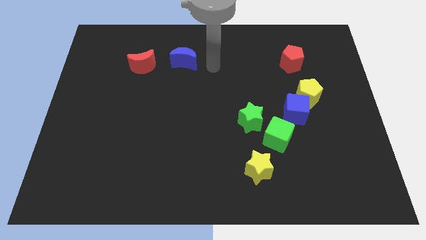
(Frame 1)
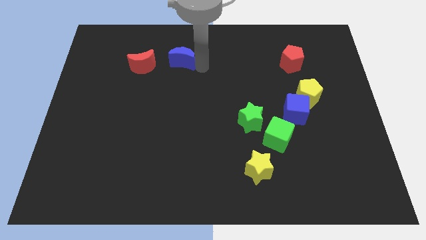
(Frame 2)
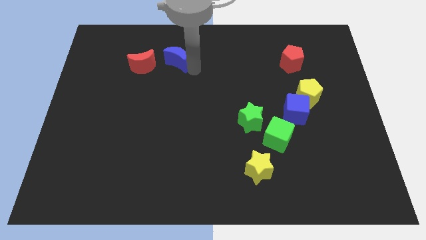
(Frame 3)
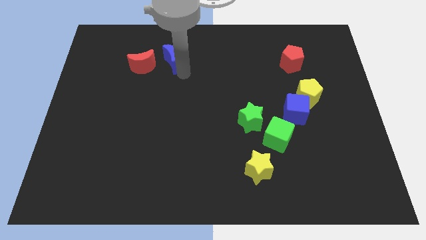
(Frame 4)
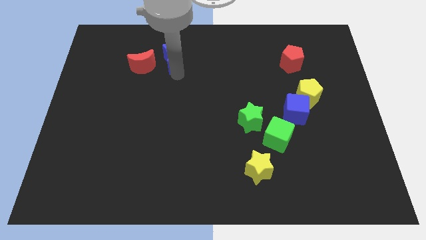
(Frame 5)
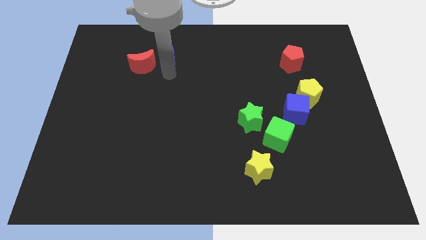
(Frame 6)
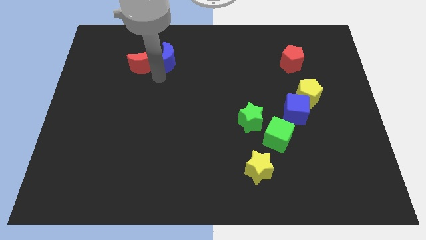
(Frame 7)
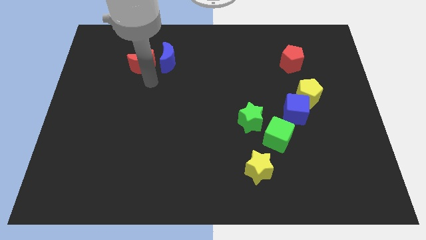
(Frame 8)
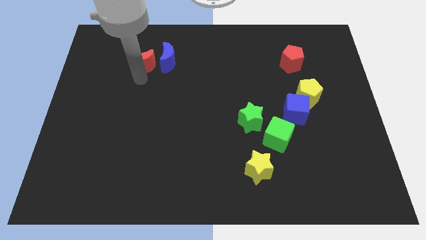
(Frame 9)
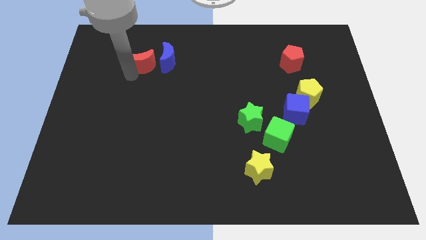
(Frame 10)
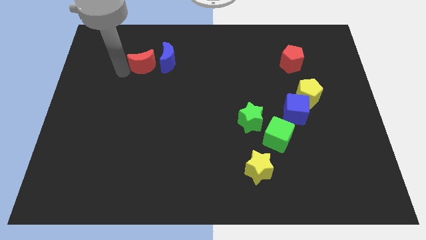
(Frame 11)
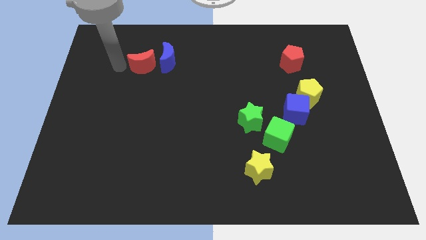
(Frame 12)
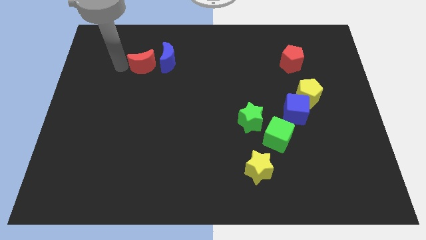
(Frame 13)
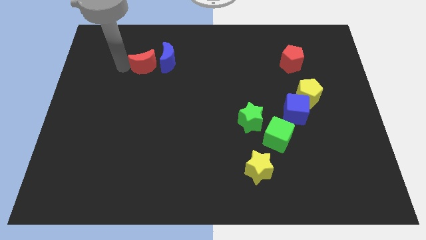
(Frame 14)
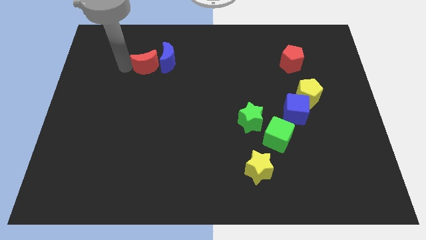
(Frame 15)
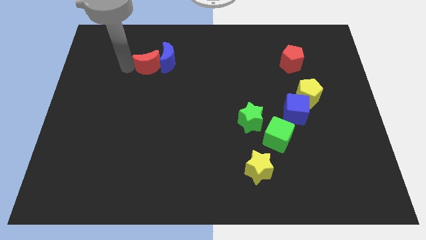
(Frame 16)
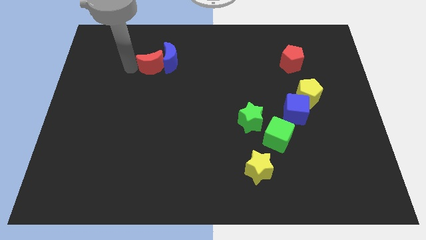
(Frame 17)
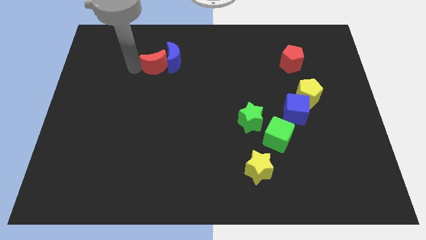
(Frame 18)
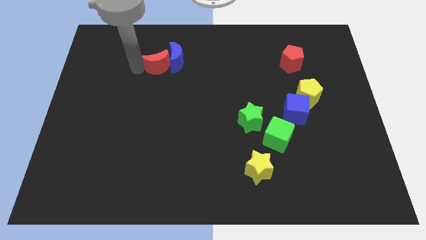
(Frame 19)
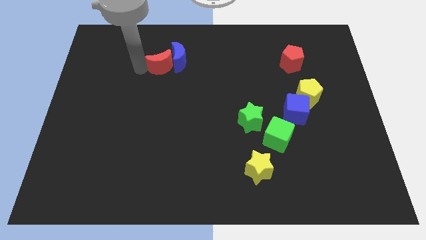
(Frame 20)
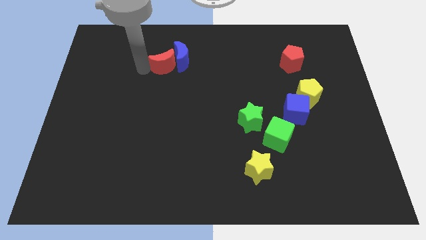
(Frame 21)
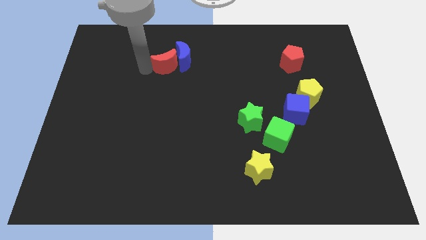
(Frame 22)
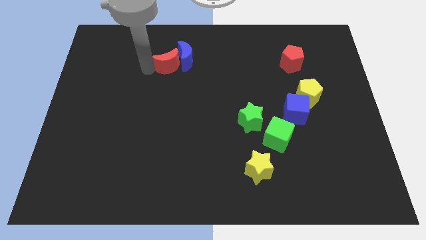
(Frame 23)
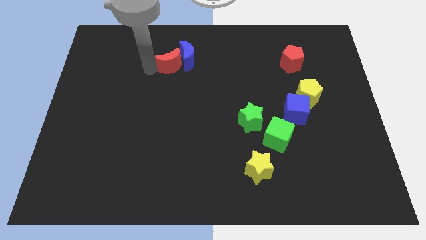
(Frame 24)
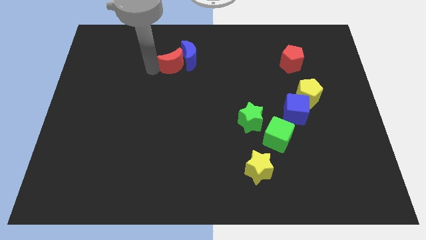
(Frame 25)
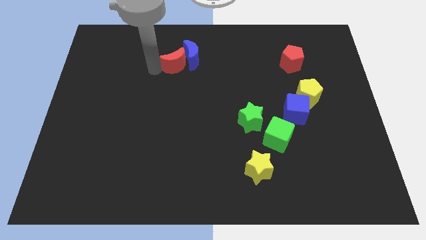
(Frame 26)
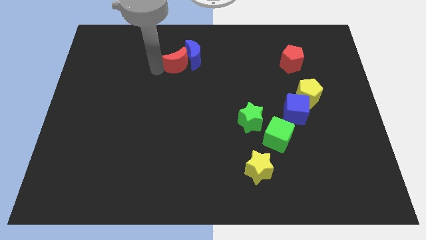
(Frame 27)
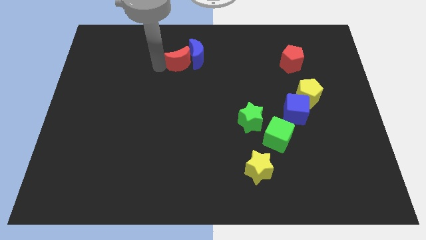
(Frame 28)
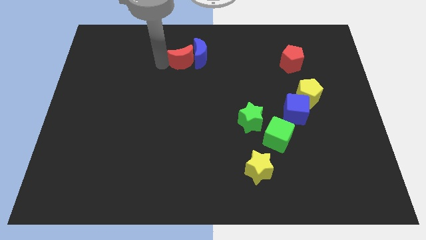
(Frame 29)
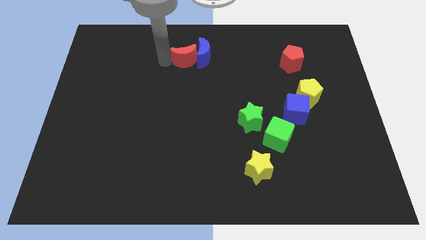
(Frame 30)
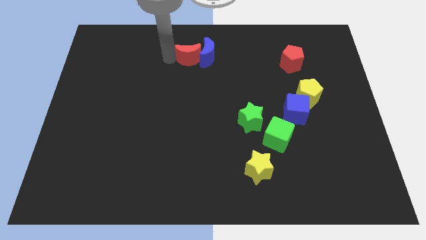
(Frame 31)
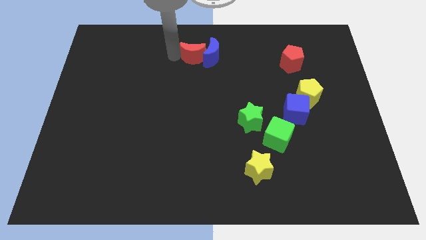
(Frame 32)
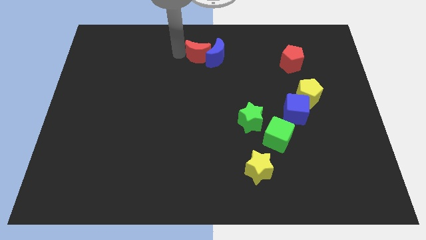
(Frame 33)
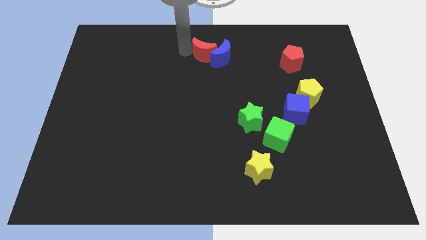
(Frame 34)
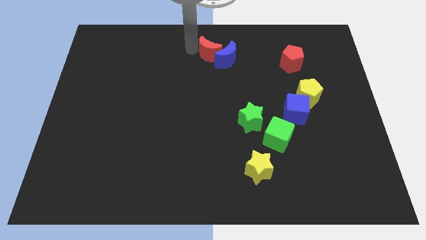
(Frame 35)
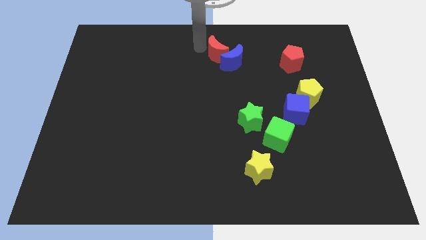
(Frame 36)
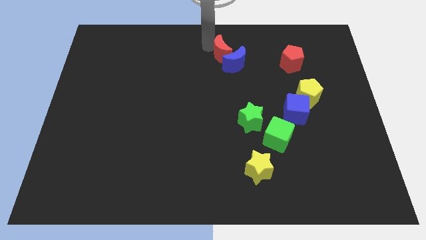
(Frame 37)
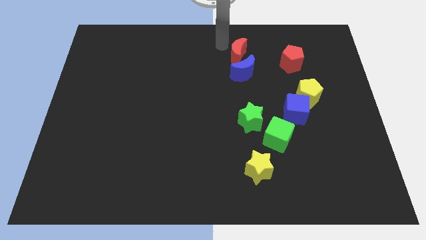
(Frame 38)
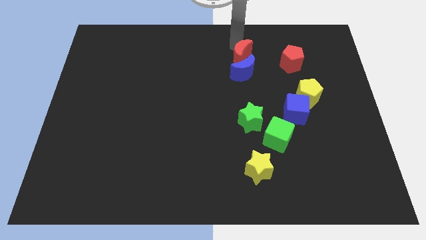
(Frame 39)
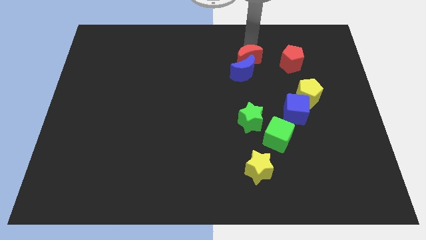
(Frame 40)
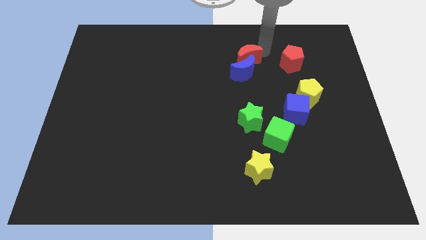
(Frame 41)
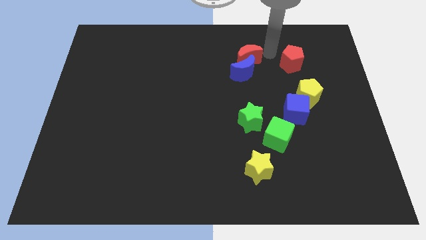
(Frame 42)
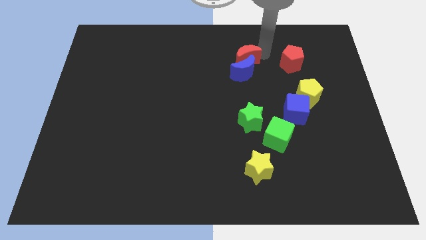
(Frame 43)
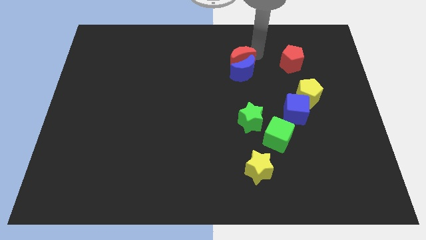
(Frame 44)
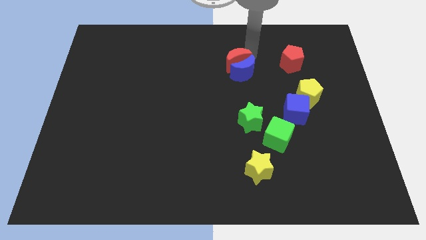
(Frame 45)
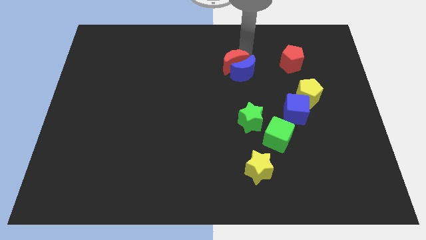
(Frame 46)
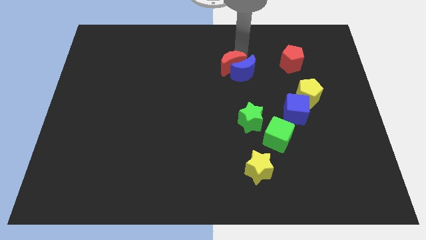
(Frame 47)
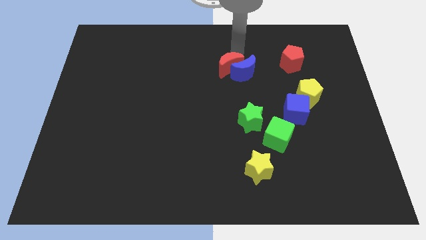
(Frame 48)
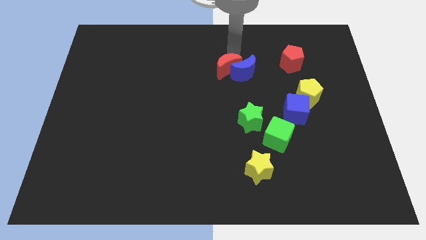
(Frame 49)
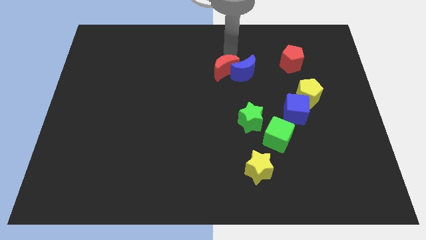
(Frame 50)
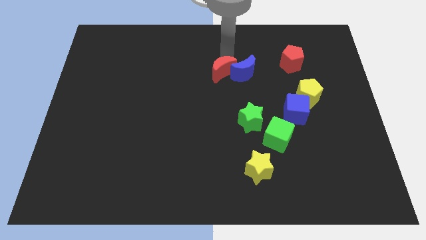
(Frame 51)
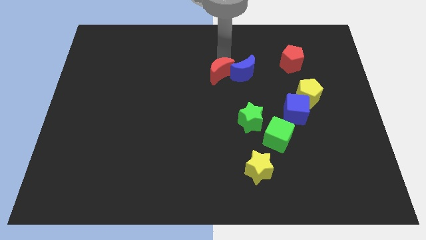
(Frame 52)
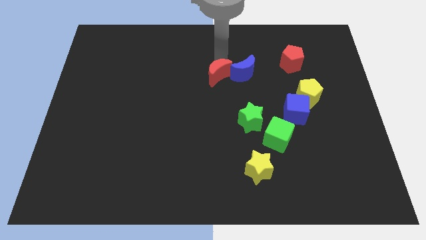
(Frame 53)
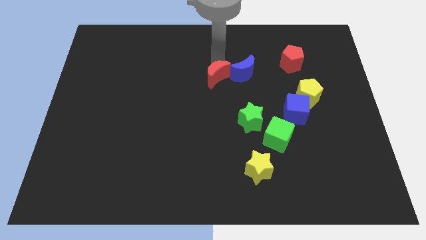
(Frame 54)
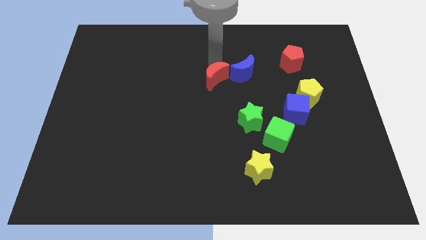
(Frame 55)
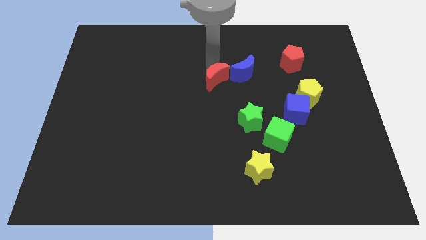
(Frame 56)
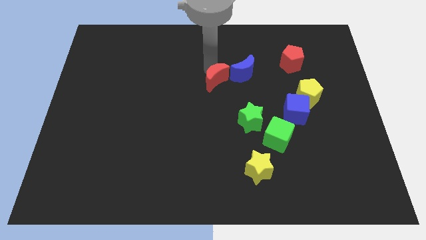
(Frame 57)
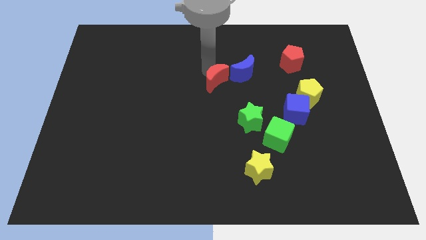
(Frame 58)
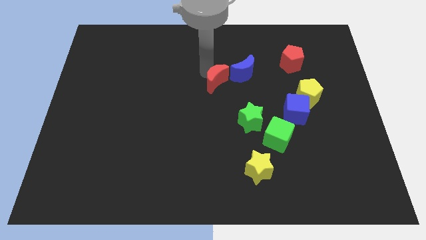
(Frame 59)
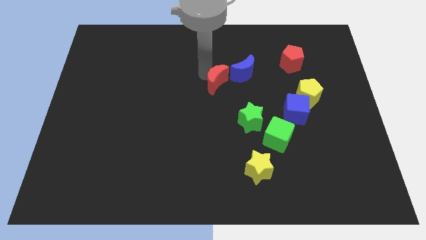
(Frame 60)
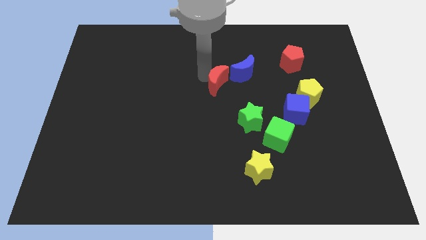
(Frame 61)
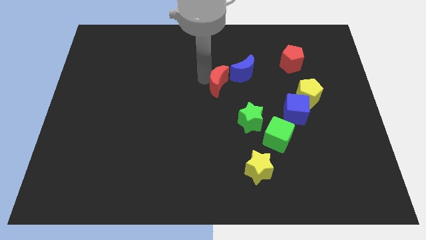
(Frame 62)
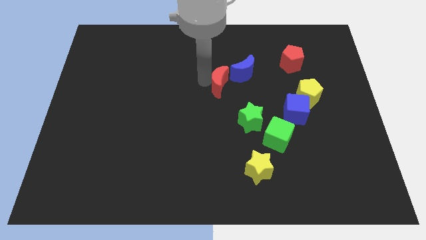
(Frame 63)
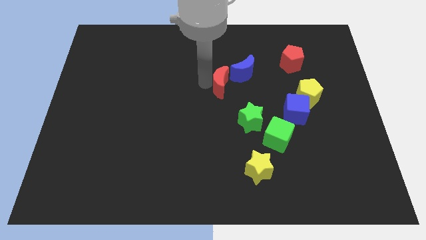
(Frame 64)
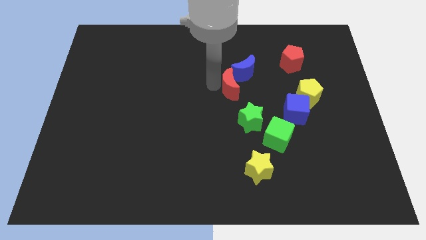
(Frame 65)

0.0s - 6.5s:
slide the red moon to the top of the green star
